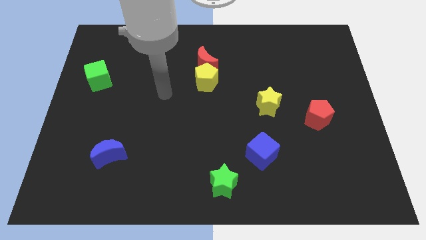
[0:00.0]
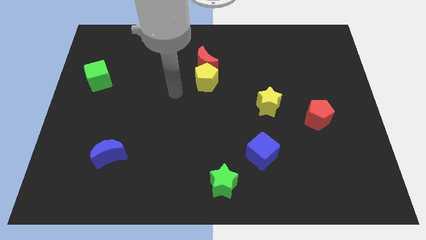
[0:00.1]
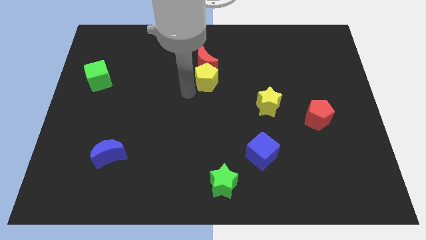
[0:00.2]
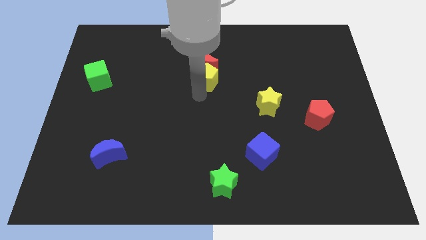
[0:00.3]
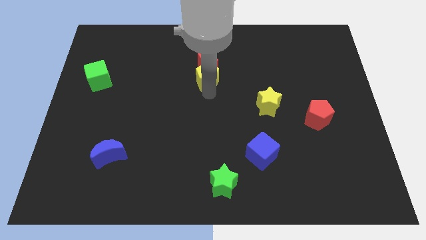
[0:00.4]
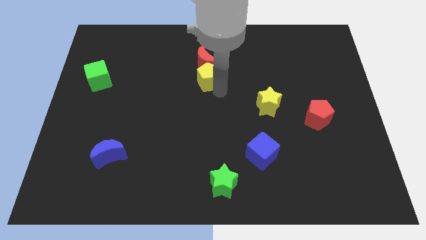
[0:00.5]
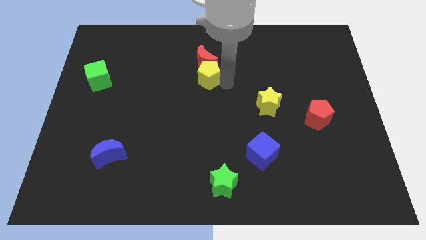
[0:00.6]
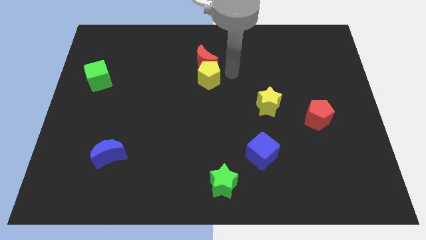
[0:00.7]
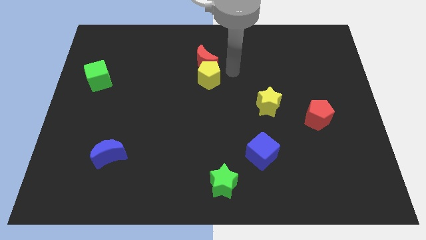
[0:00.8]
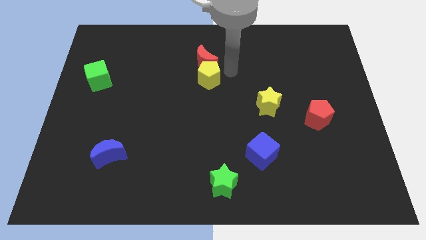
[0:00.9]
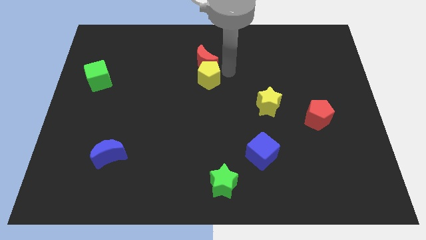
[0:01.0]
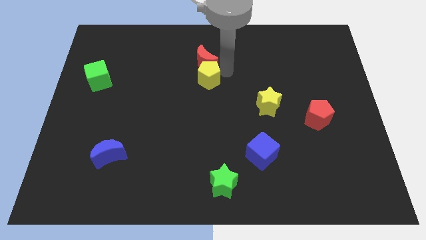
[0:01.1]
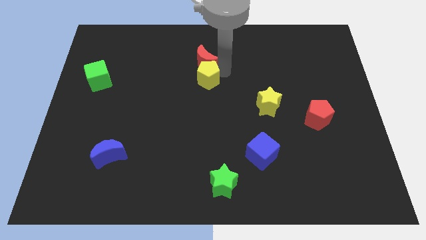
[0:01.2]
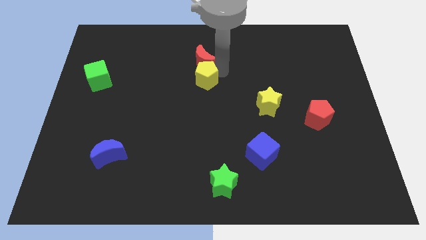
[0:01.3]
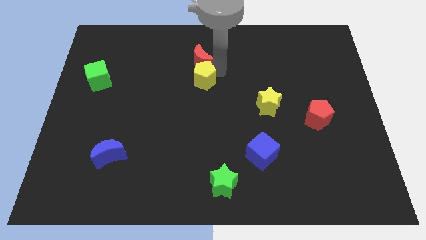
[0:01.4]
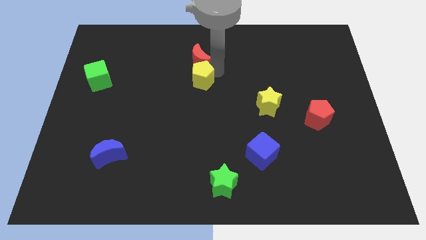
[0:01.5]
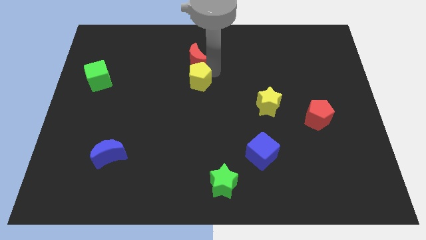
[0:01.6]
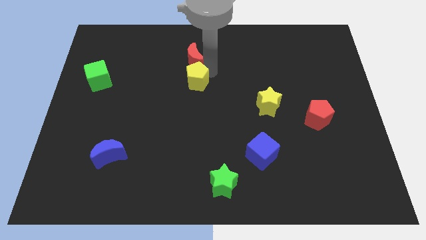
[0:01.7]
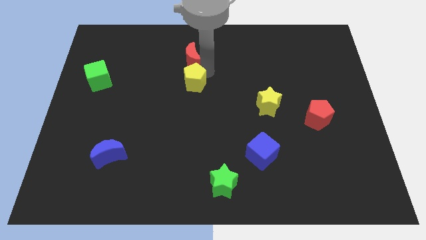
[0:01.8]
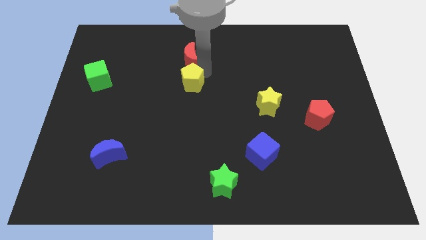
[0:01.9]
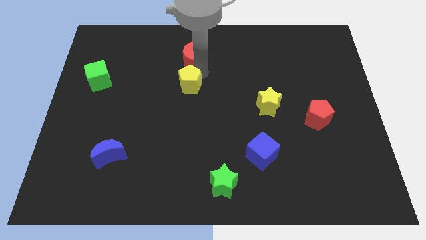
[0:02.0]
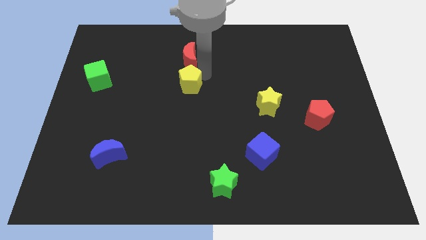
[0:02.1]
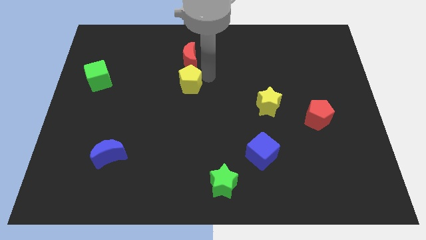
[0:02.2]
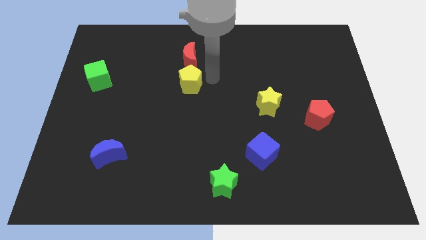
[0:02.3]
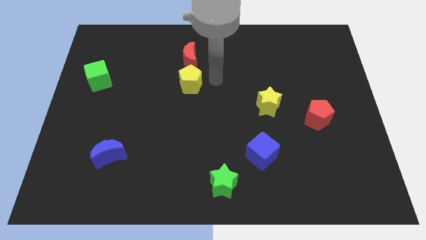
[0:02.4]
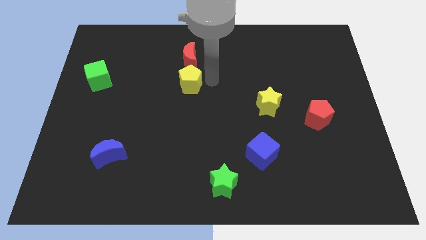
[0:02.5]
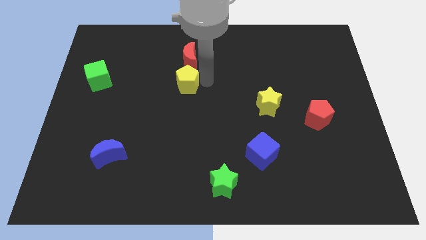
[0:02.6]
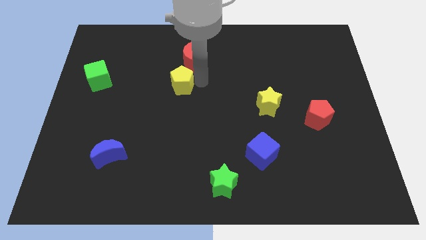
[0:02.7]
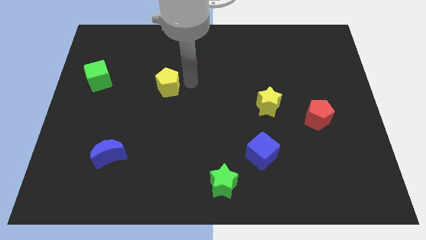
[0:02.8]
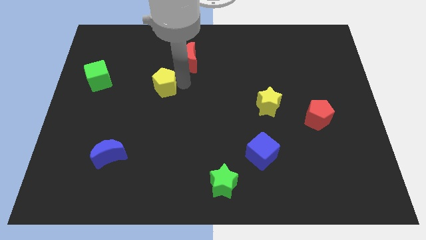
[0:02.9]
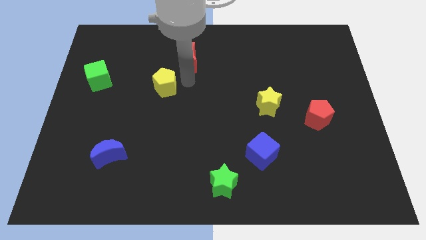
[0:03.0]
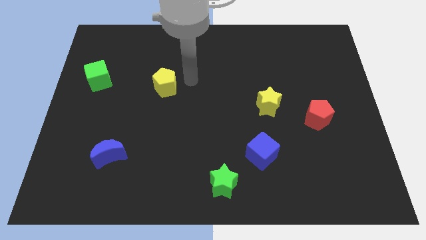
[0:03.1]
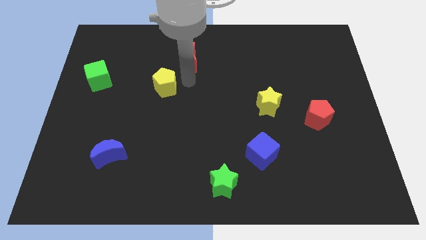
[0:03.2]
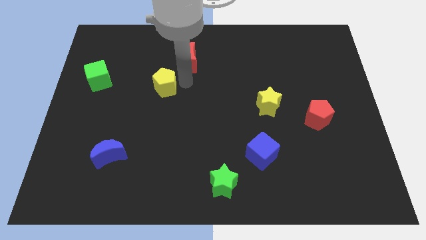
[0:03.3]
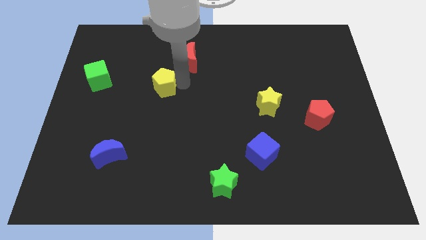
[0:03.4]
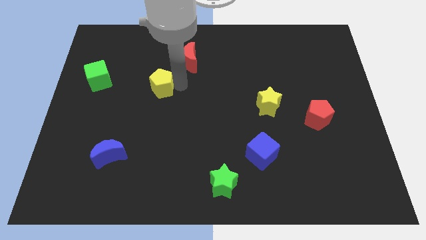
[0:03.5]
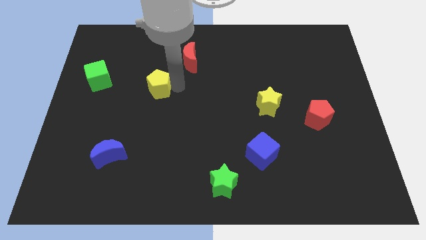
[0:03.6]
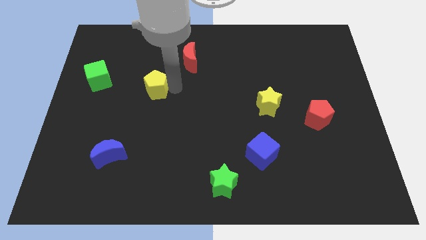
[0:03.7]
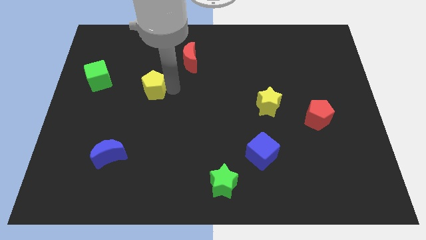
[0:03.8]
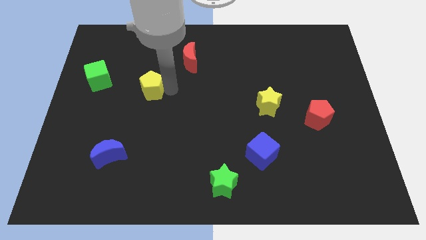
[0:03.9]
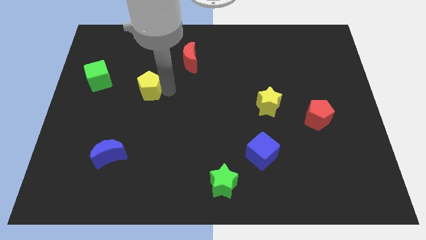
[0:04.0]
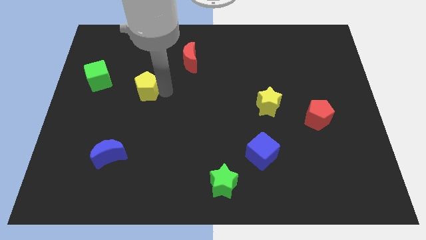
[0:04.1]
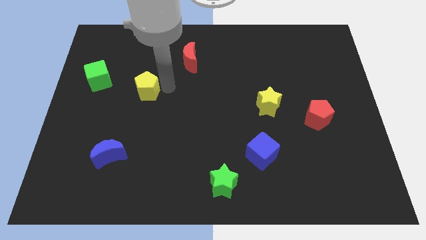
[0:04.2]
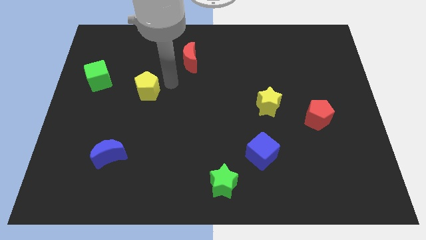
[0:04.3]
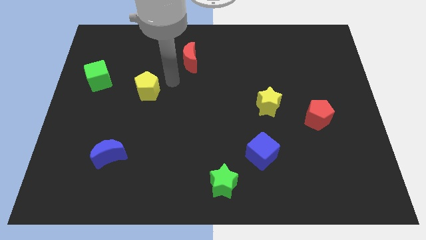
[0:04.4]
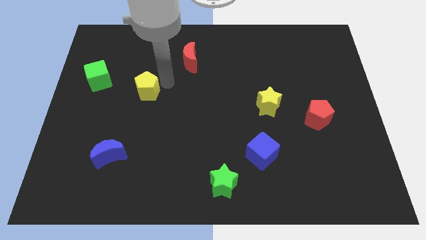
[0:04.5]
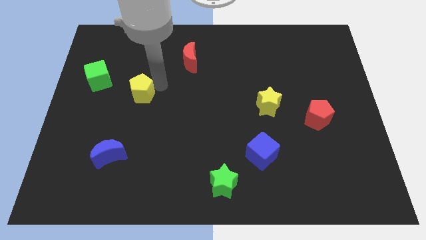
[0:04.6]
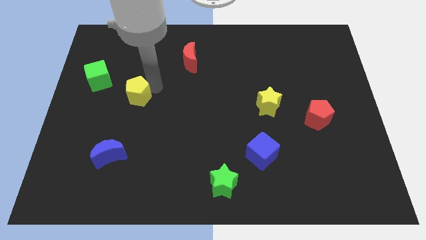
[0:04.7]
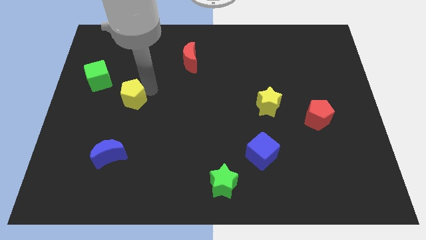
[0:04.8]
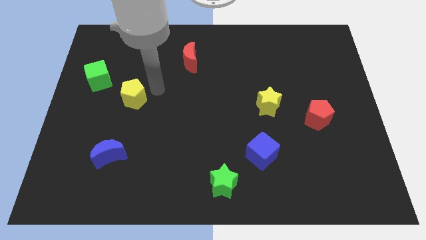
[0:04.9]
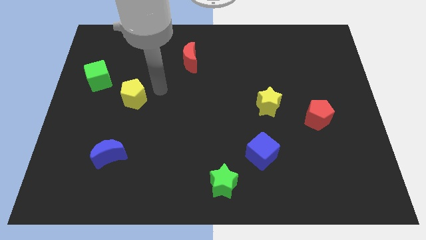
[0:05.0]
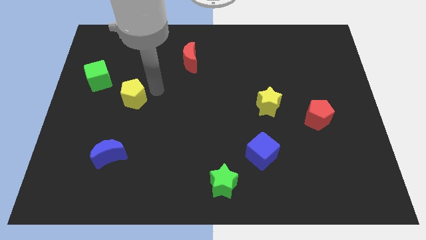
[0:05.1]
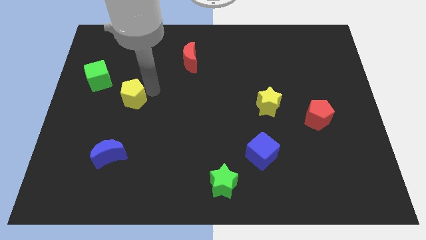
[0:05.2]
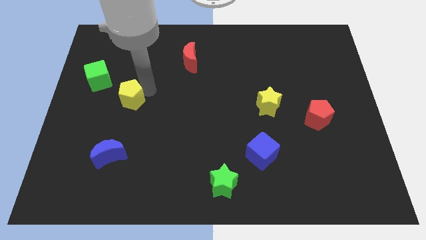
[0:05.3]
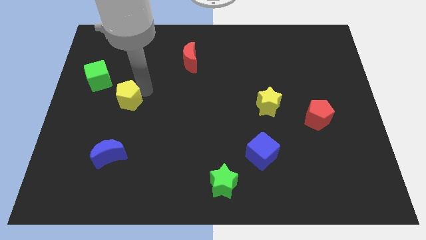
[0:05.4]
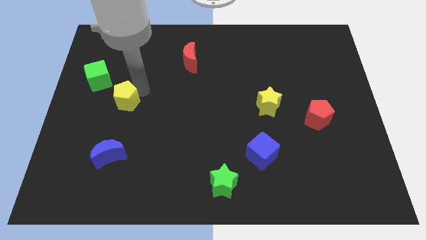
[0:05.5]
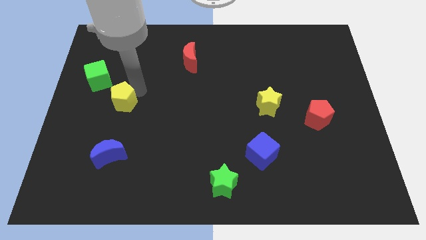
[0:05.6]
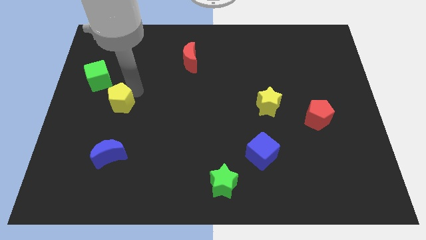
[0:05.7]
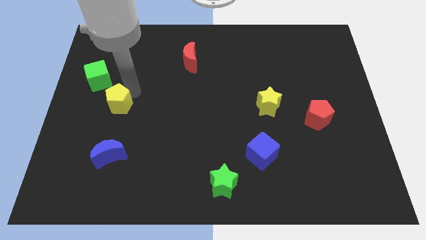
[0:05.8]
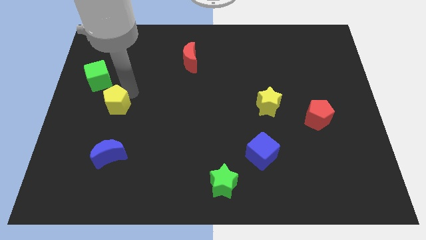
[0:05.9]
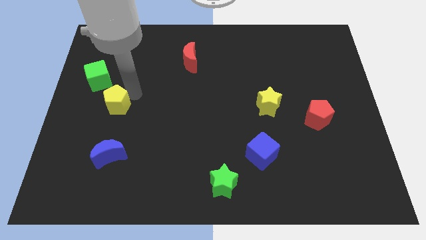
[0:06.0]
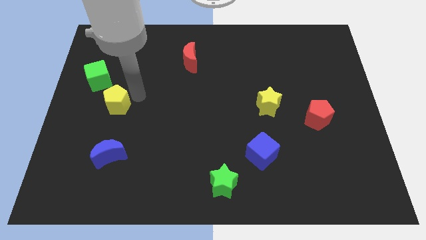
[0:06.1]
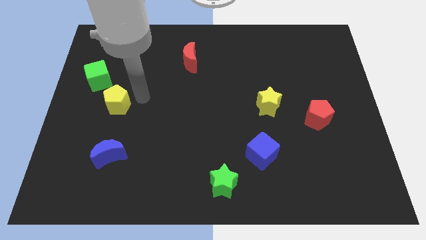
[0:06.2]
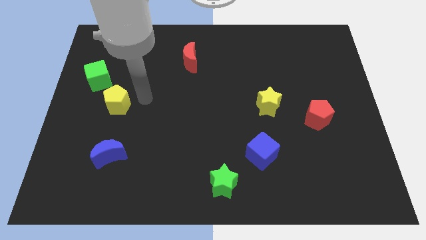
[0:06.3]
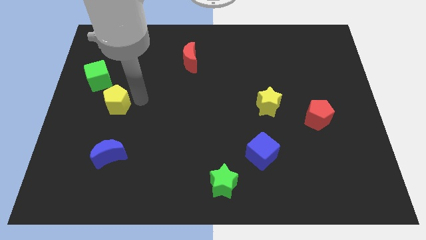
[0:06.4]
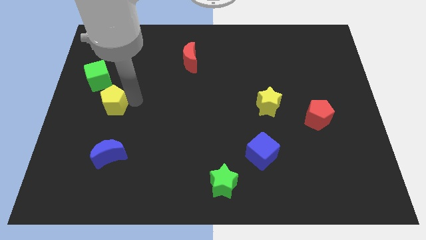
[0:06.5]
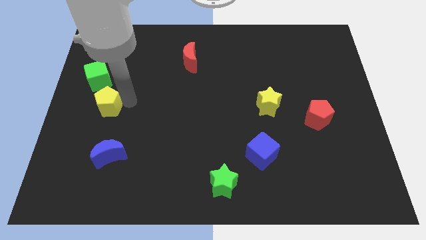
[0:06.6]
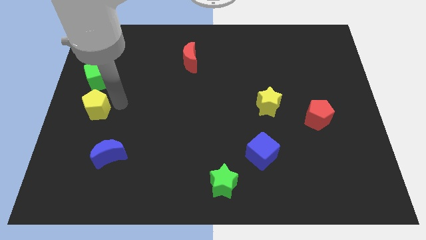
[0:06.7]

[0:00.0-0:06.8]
push the yellow pentagon to the center left
